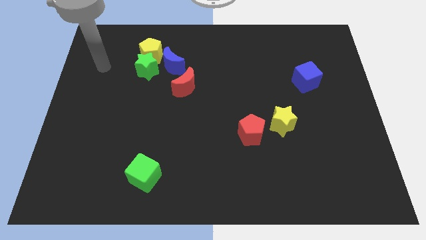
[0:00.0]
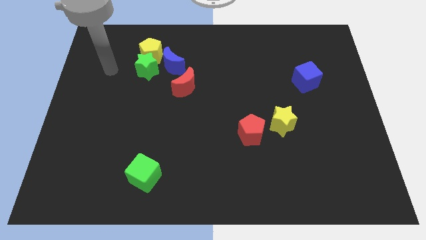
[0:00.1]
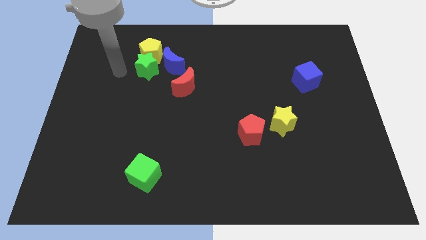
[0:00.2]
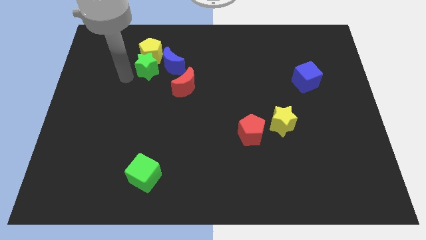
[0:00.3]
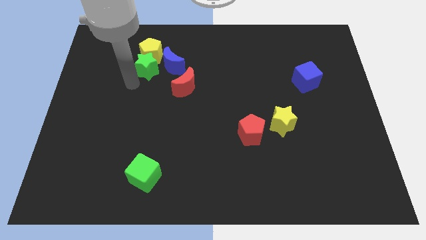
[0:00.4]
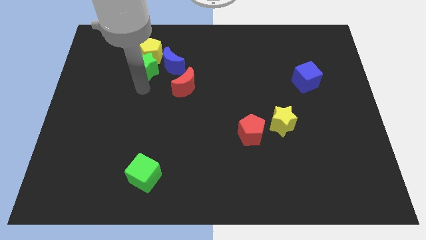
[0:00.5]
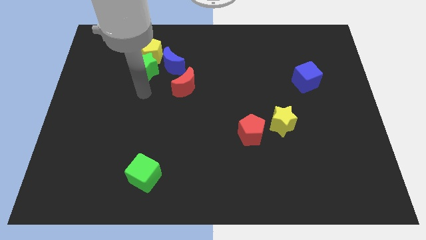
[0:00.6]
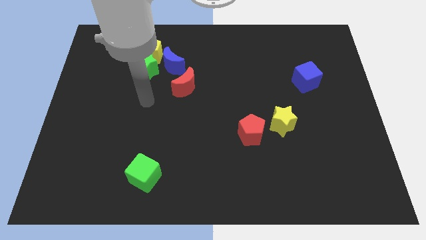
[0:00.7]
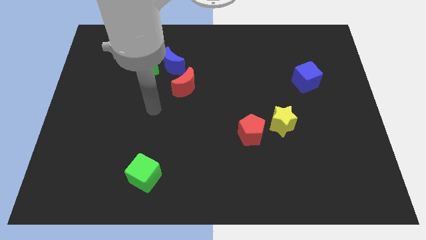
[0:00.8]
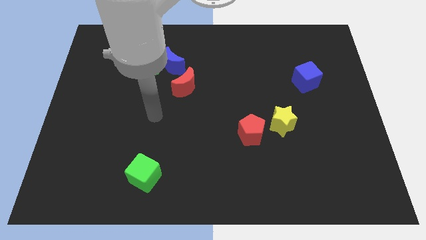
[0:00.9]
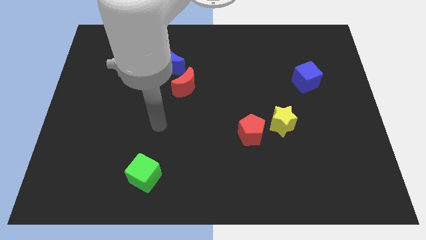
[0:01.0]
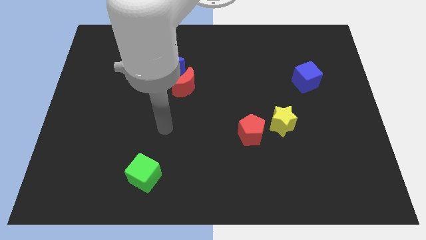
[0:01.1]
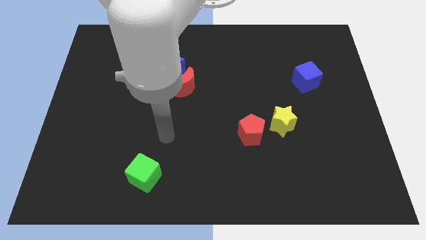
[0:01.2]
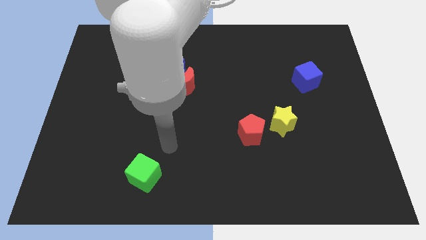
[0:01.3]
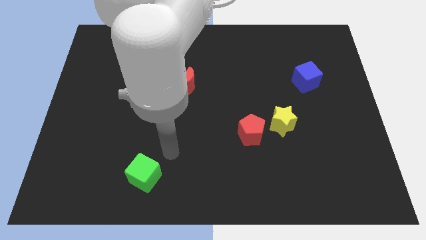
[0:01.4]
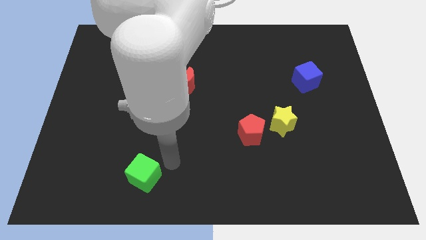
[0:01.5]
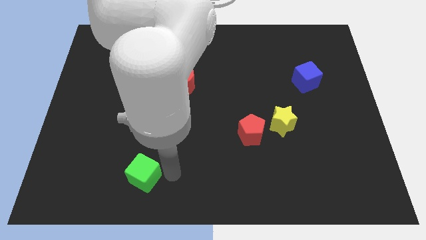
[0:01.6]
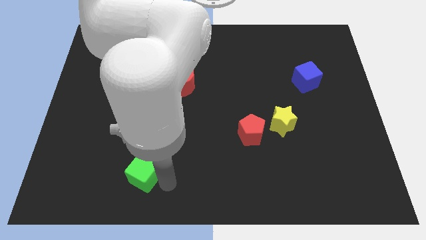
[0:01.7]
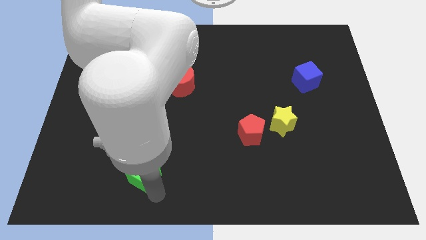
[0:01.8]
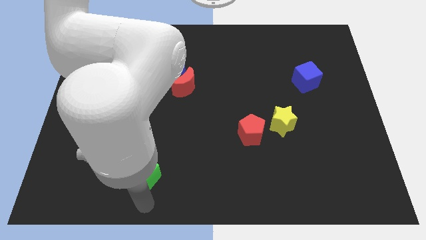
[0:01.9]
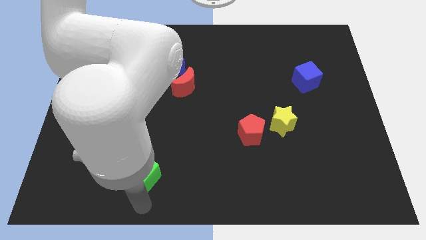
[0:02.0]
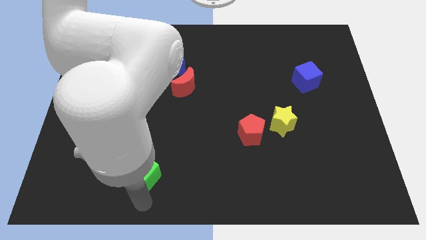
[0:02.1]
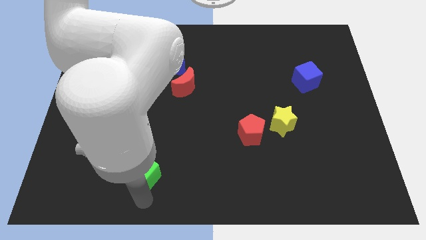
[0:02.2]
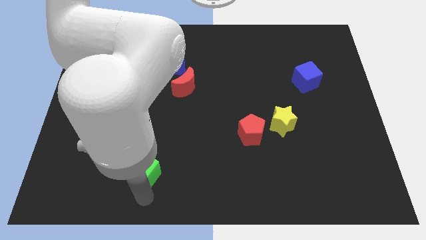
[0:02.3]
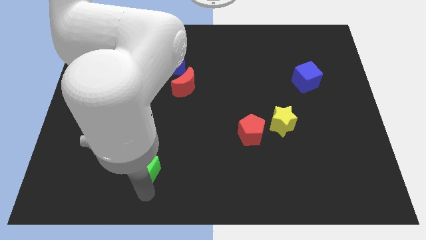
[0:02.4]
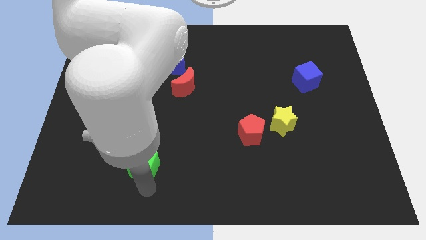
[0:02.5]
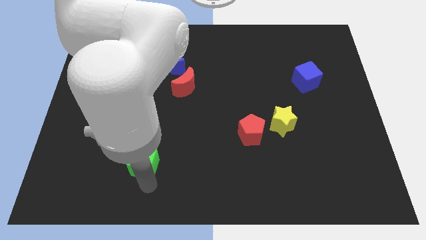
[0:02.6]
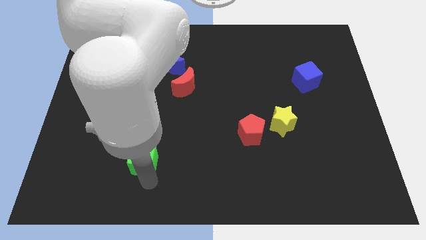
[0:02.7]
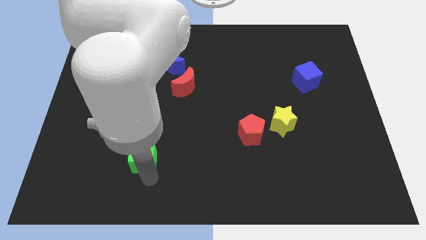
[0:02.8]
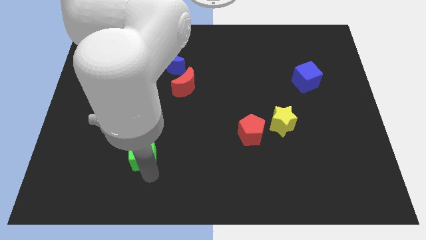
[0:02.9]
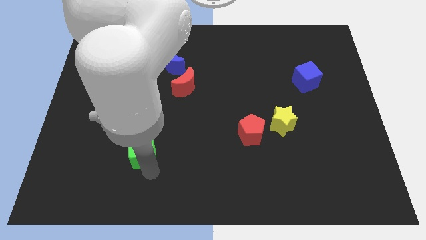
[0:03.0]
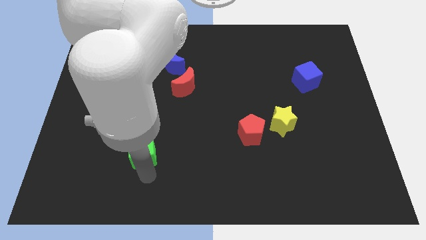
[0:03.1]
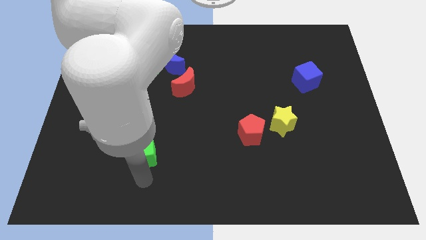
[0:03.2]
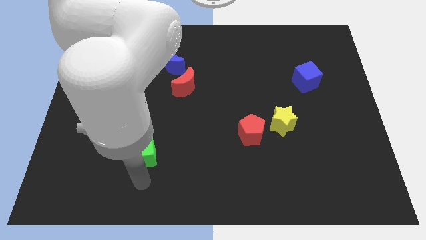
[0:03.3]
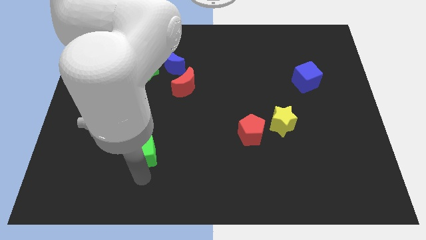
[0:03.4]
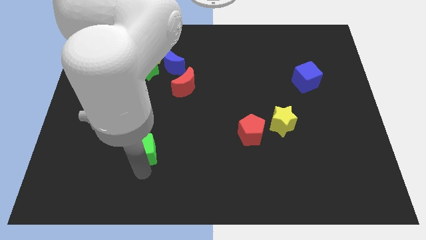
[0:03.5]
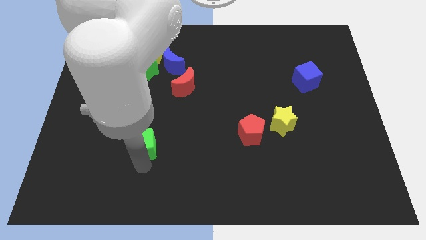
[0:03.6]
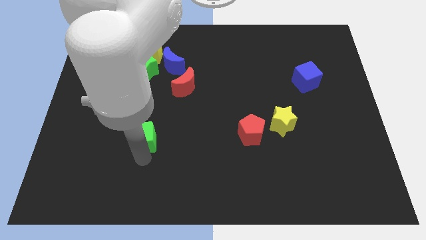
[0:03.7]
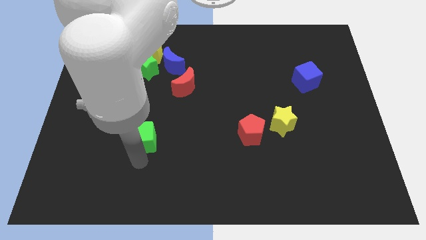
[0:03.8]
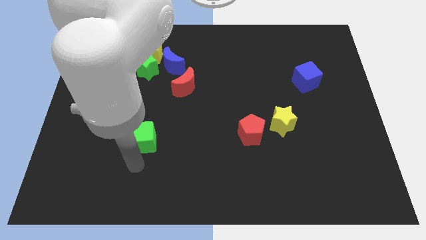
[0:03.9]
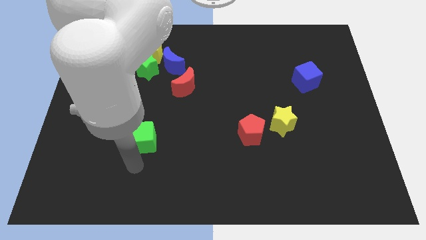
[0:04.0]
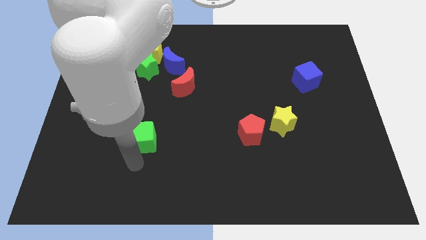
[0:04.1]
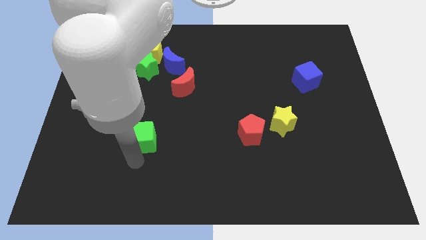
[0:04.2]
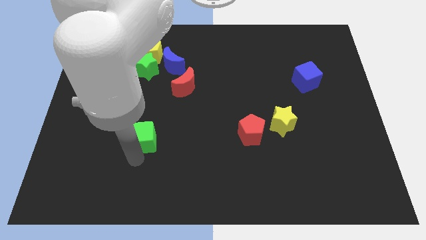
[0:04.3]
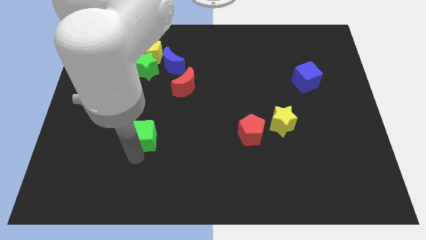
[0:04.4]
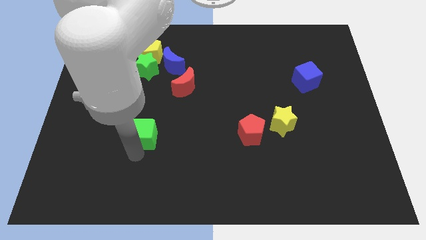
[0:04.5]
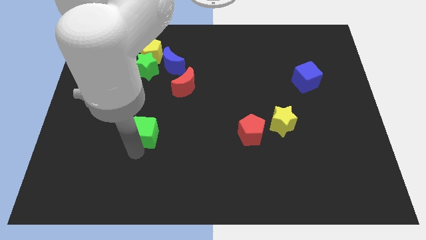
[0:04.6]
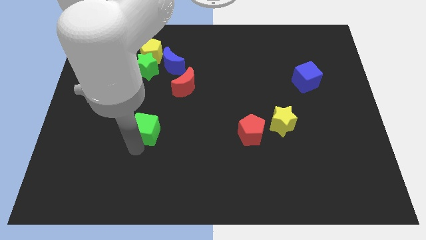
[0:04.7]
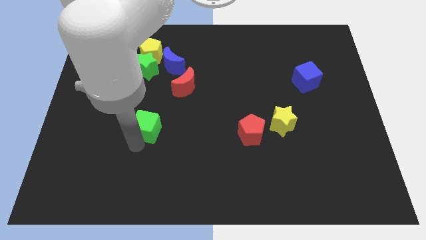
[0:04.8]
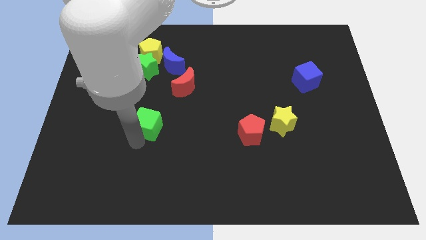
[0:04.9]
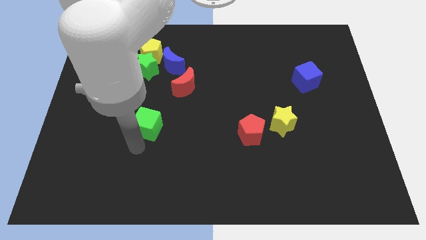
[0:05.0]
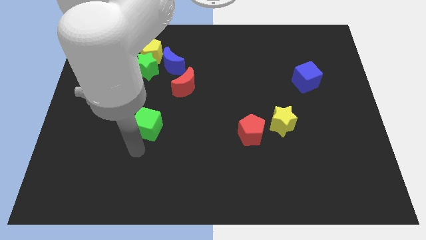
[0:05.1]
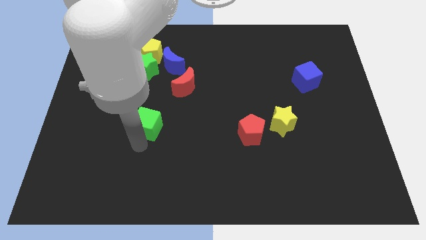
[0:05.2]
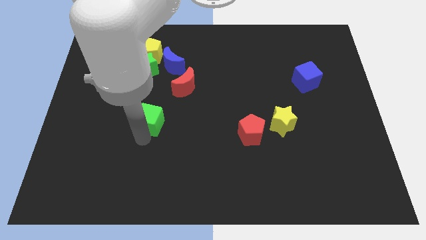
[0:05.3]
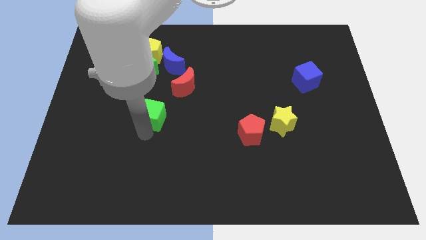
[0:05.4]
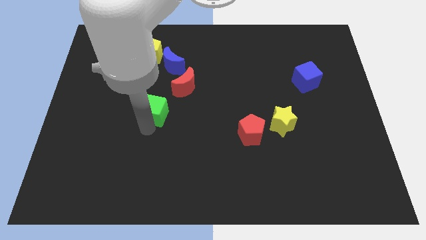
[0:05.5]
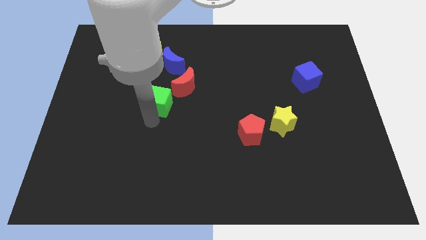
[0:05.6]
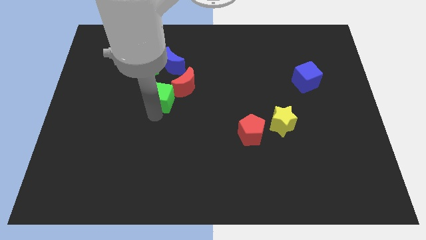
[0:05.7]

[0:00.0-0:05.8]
move the green cube diagonally down and to the right of the green star

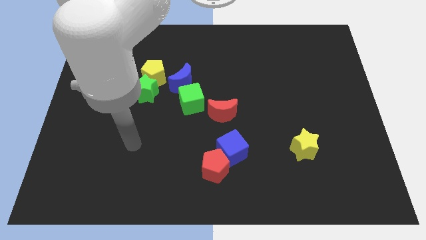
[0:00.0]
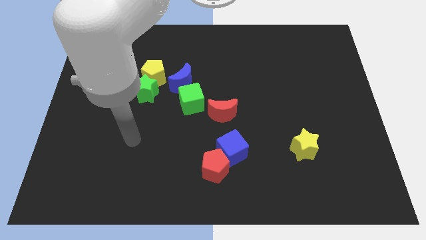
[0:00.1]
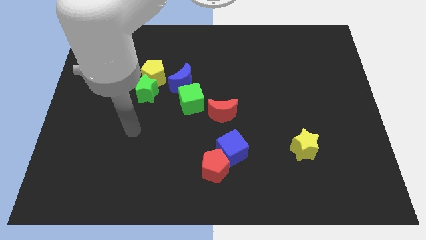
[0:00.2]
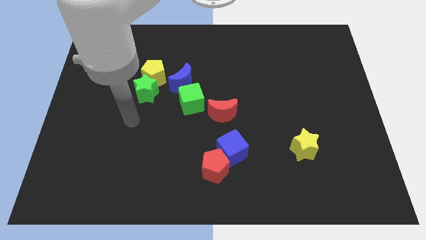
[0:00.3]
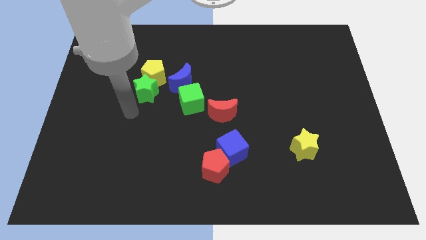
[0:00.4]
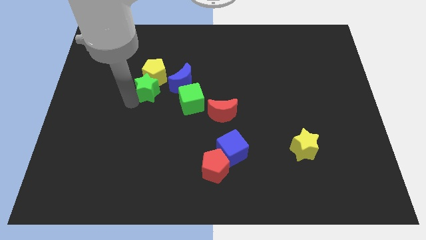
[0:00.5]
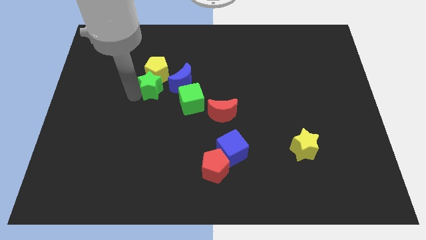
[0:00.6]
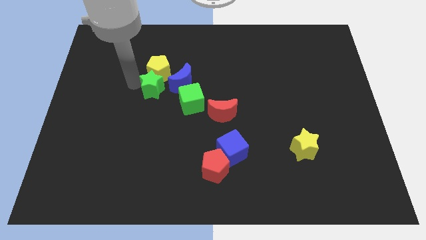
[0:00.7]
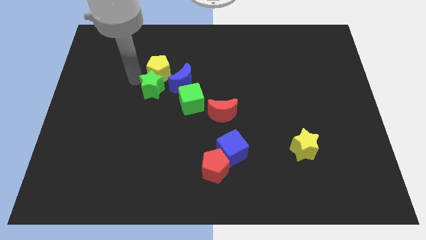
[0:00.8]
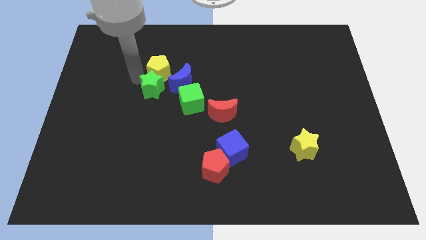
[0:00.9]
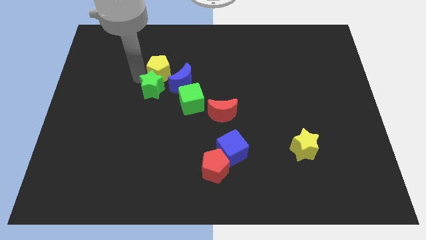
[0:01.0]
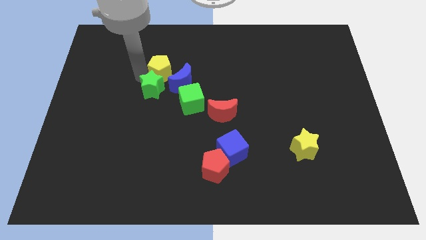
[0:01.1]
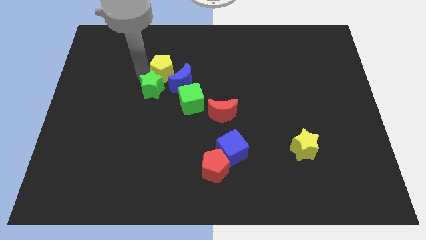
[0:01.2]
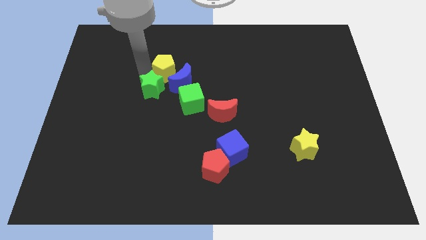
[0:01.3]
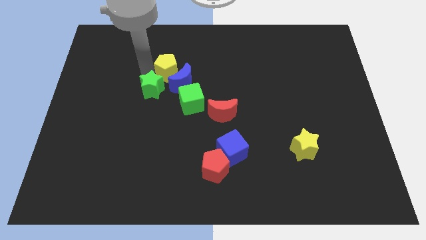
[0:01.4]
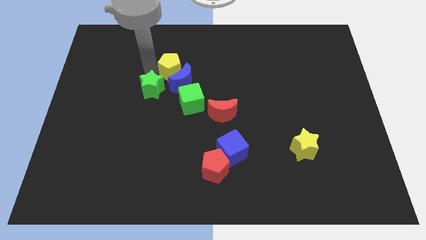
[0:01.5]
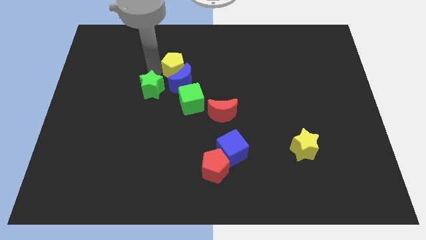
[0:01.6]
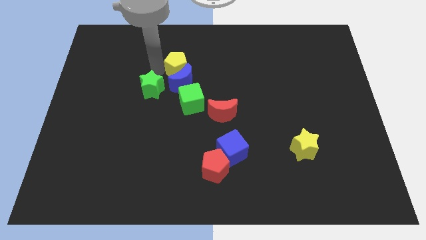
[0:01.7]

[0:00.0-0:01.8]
move the yellow pentagon diagonally up and to the right of the blue moon
